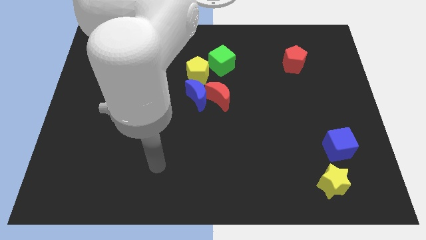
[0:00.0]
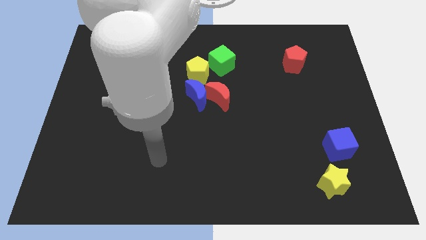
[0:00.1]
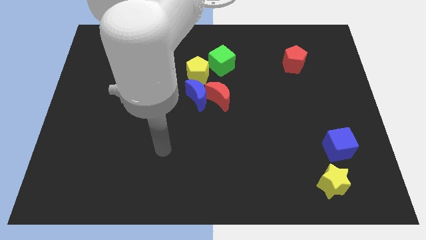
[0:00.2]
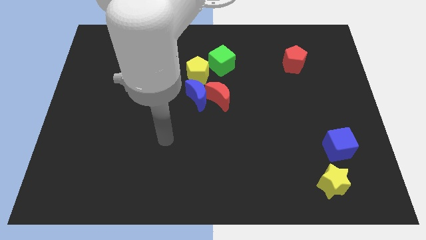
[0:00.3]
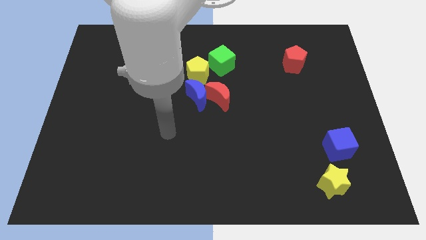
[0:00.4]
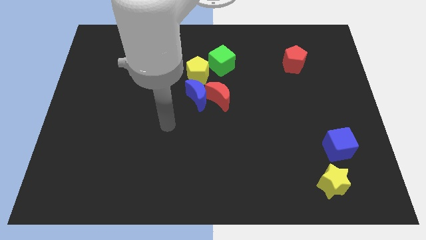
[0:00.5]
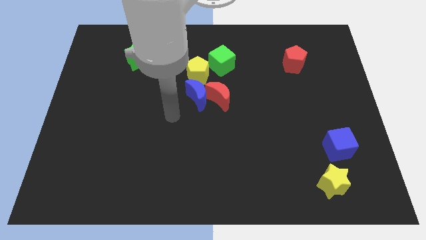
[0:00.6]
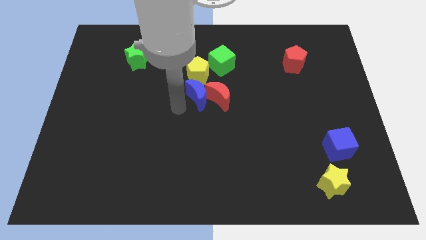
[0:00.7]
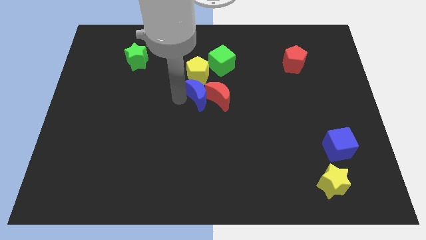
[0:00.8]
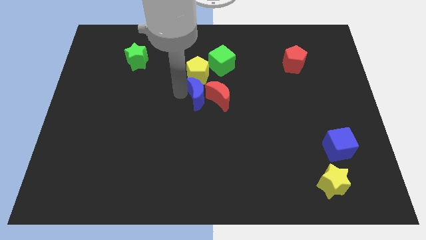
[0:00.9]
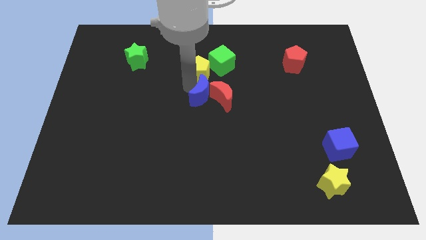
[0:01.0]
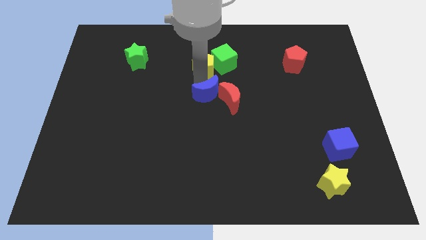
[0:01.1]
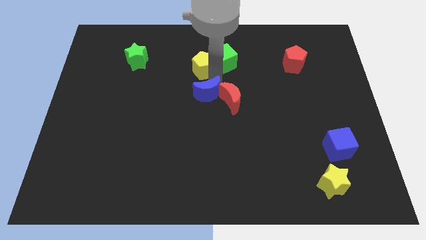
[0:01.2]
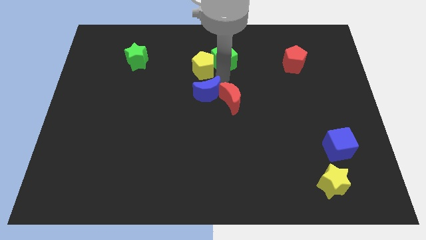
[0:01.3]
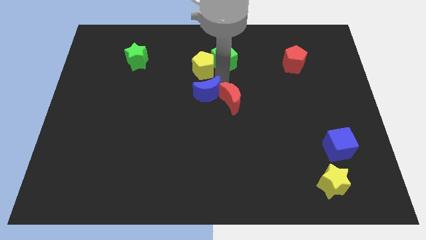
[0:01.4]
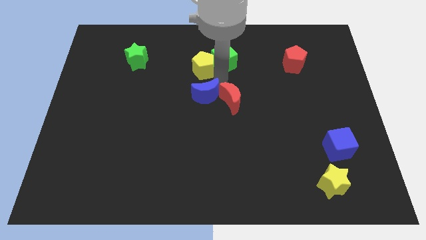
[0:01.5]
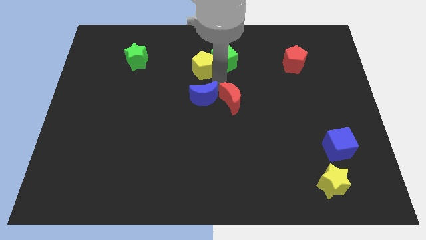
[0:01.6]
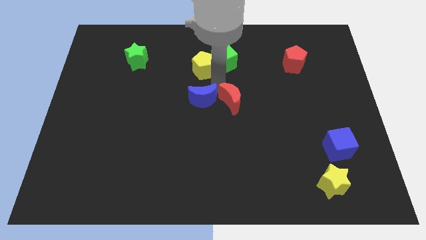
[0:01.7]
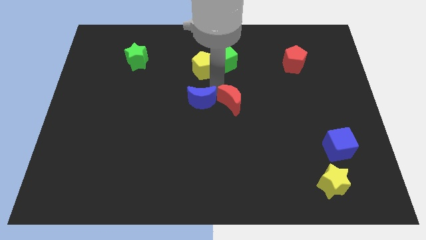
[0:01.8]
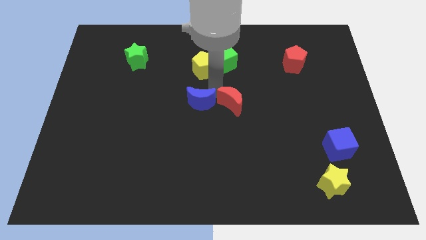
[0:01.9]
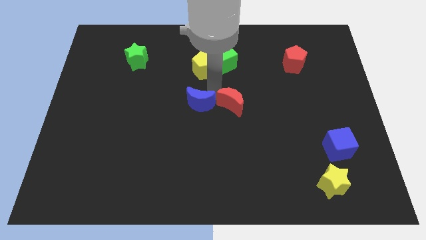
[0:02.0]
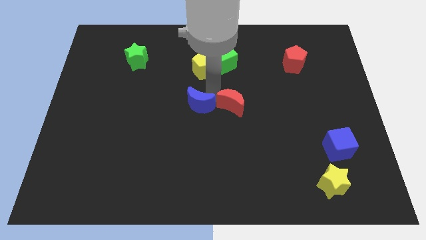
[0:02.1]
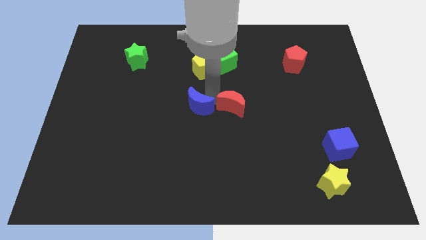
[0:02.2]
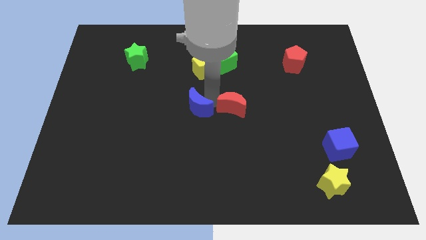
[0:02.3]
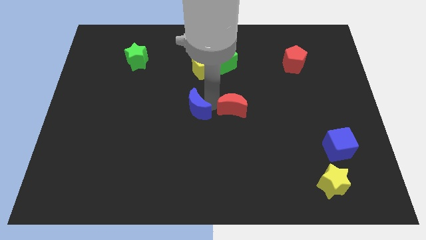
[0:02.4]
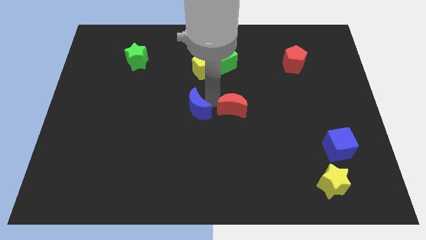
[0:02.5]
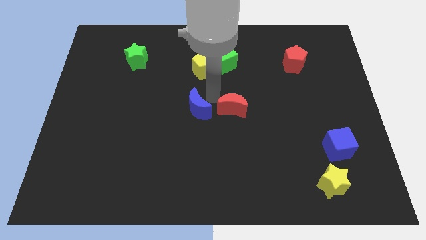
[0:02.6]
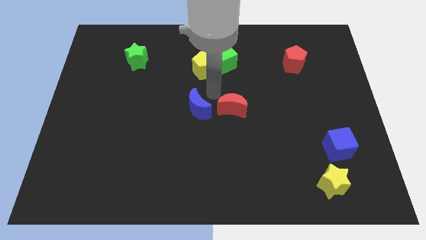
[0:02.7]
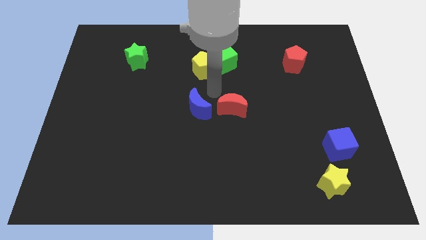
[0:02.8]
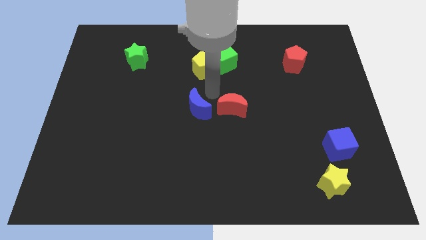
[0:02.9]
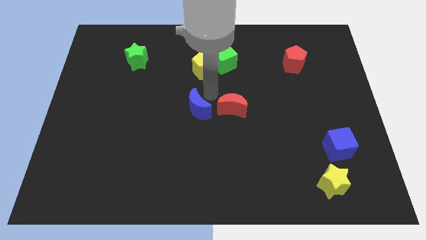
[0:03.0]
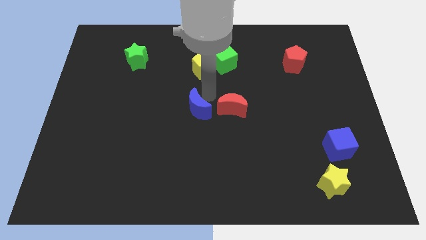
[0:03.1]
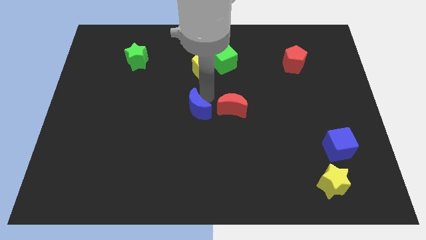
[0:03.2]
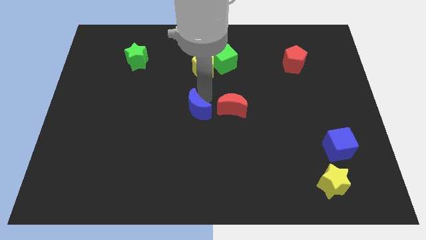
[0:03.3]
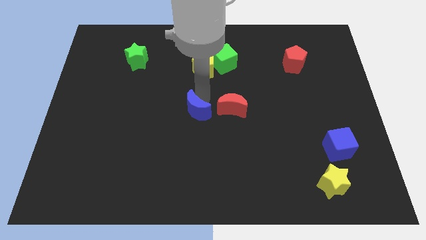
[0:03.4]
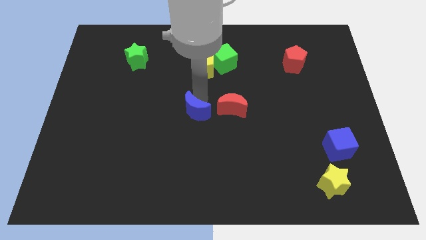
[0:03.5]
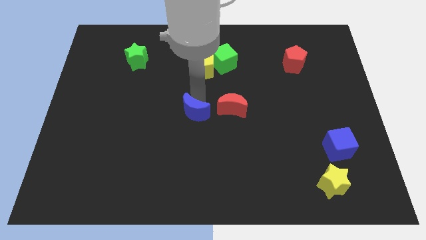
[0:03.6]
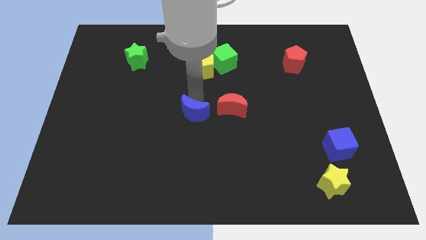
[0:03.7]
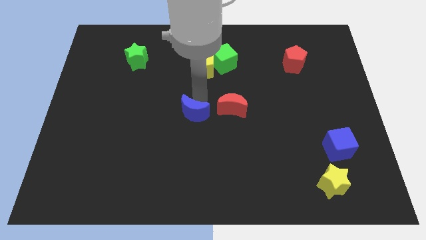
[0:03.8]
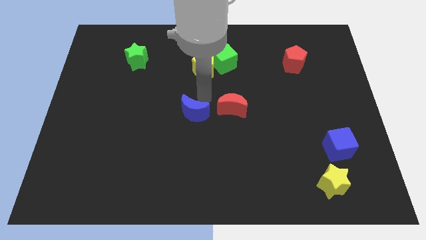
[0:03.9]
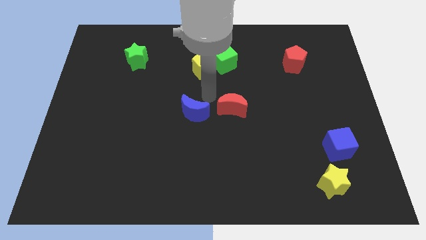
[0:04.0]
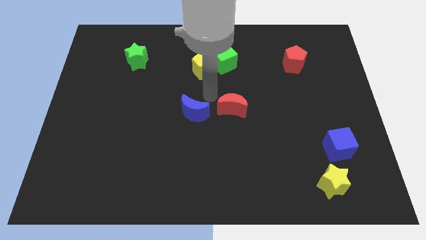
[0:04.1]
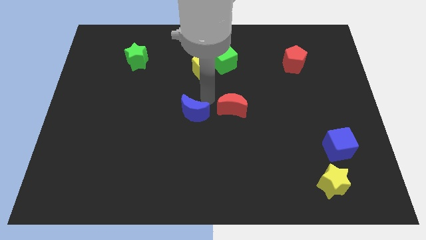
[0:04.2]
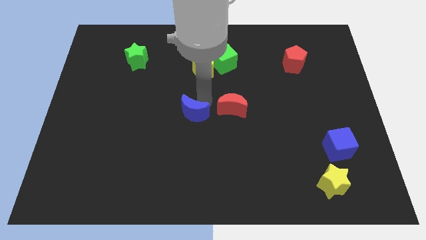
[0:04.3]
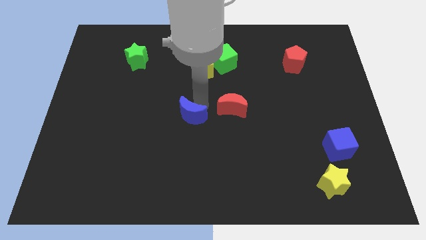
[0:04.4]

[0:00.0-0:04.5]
separate the blue moon from the red moon and yellow pentagon

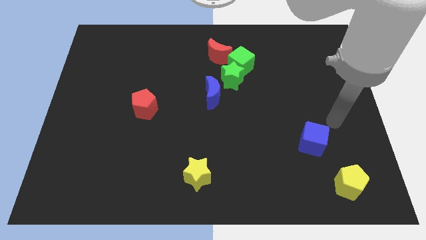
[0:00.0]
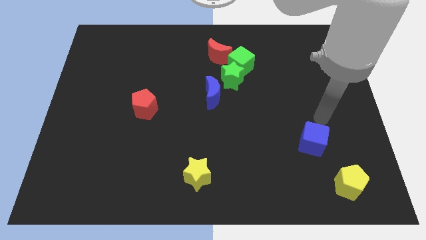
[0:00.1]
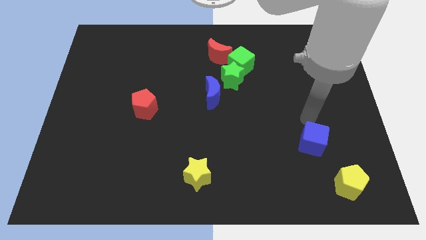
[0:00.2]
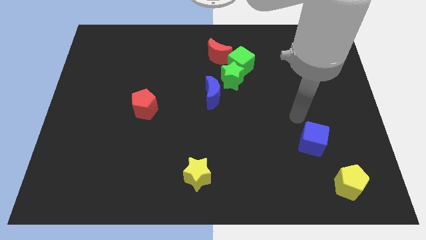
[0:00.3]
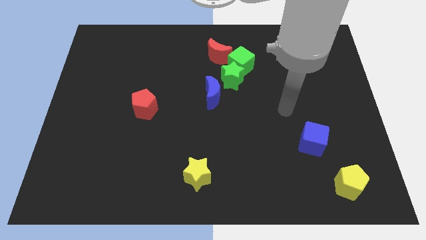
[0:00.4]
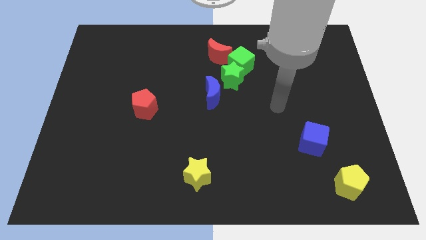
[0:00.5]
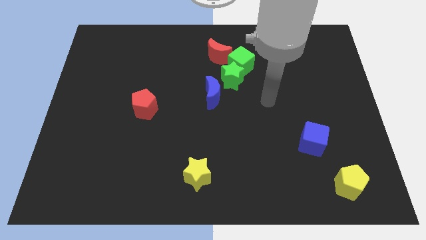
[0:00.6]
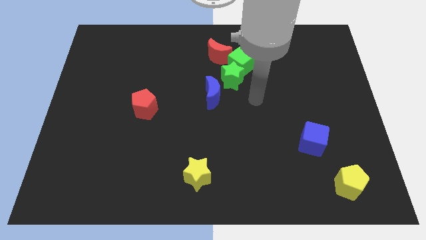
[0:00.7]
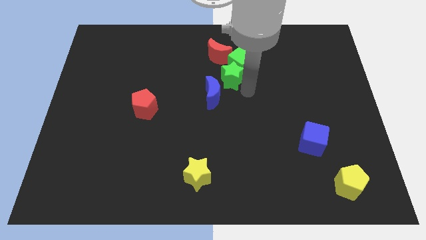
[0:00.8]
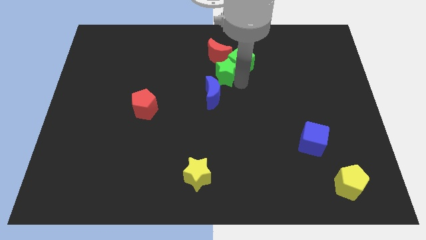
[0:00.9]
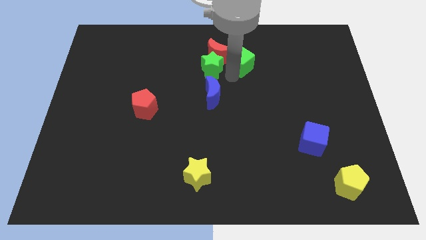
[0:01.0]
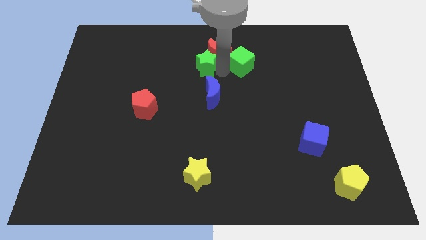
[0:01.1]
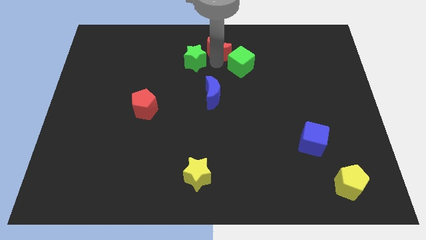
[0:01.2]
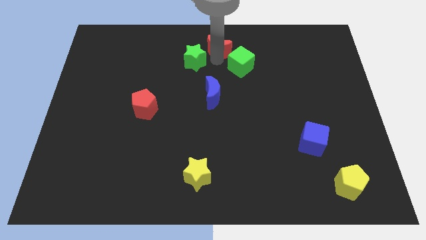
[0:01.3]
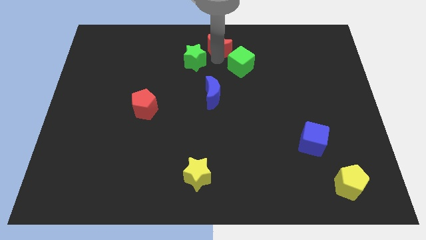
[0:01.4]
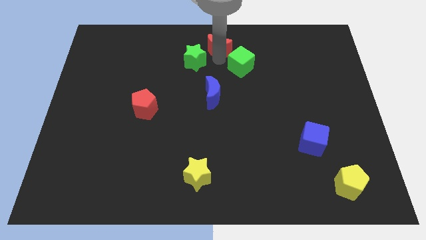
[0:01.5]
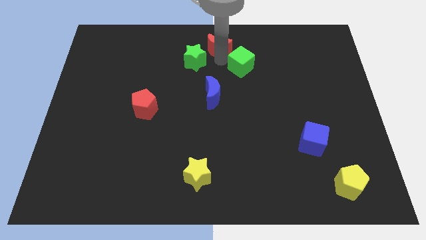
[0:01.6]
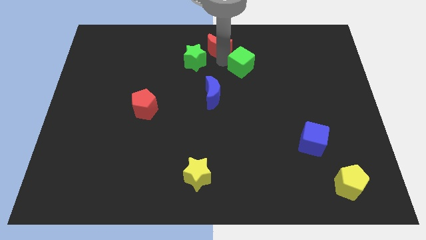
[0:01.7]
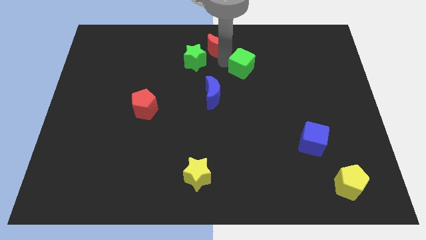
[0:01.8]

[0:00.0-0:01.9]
pull the green cube apart from the green star and red moon

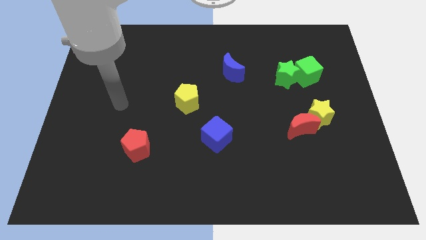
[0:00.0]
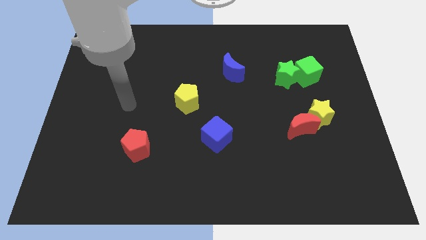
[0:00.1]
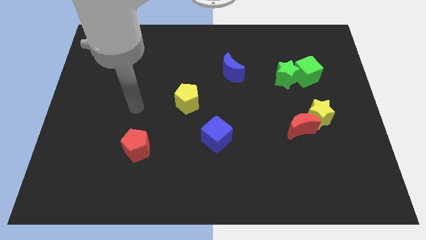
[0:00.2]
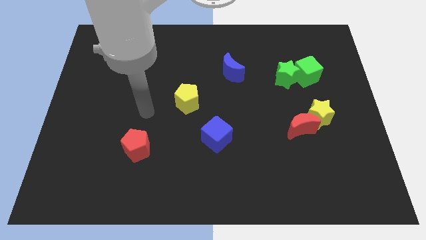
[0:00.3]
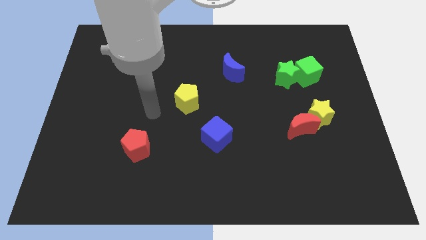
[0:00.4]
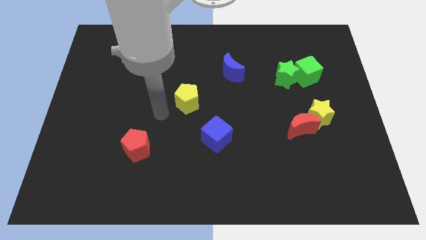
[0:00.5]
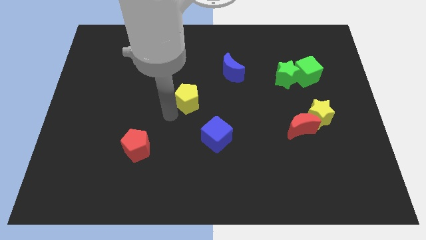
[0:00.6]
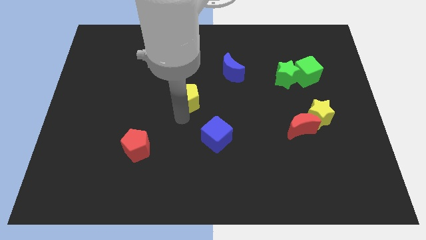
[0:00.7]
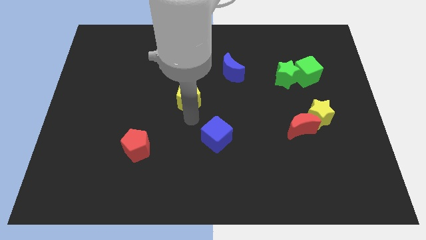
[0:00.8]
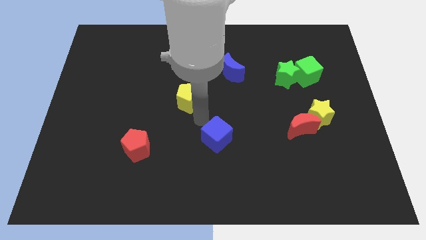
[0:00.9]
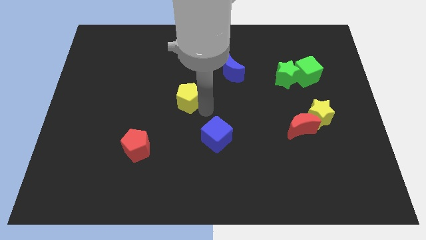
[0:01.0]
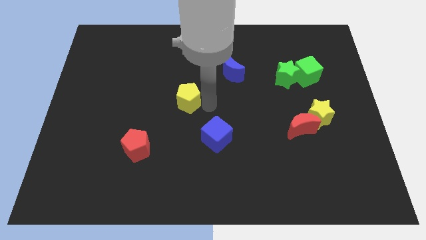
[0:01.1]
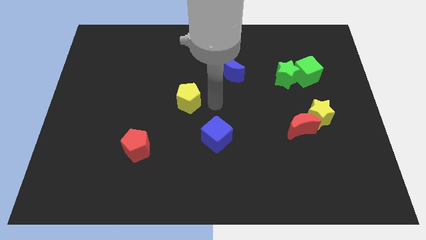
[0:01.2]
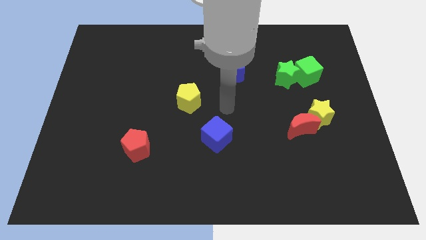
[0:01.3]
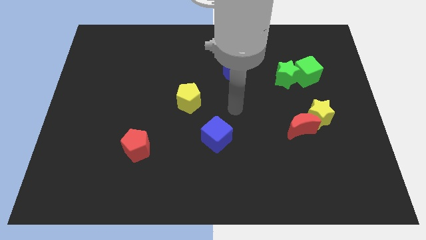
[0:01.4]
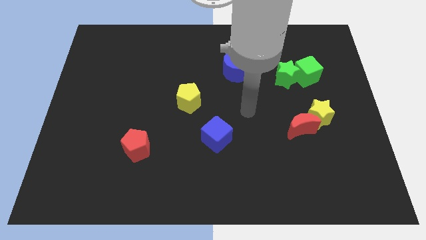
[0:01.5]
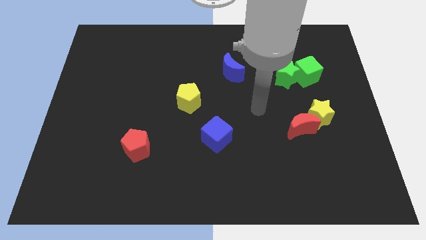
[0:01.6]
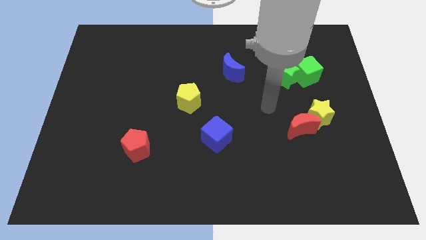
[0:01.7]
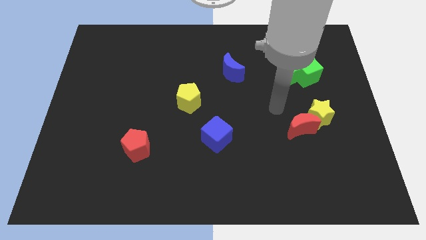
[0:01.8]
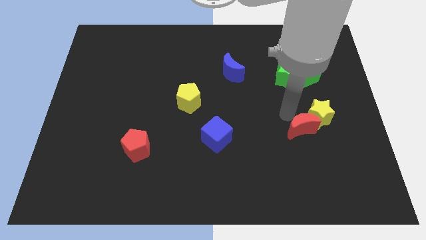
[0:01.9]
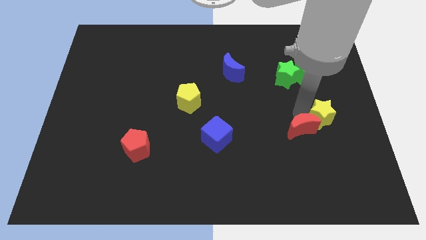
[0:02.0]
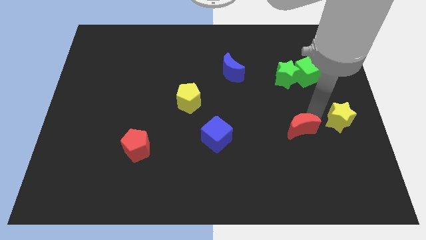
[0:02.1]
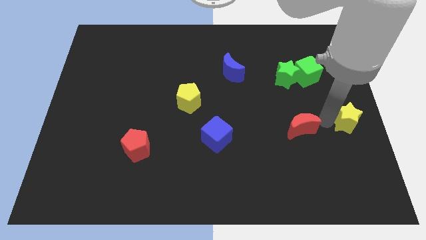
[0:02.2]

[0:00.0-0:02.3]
separate the red moon from the yellow star

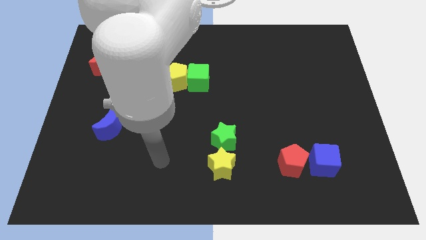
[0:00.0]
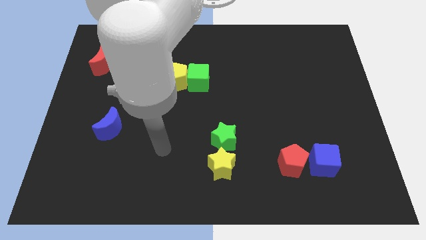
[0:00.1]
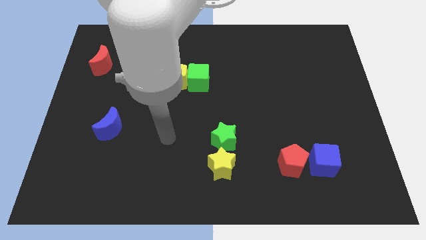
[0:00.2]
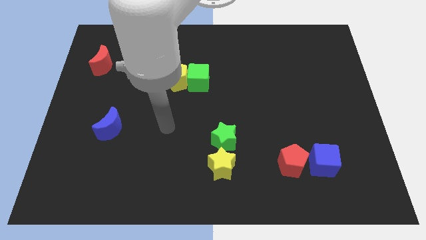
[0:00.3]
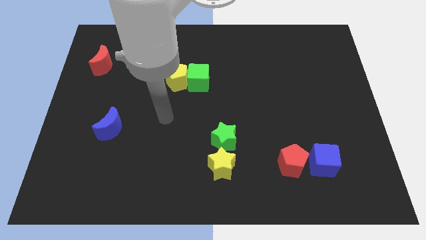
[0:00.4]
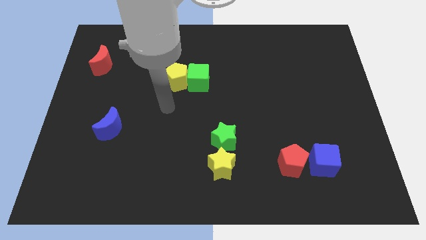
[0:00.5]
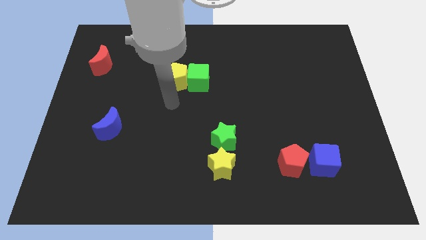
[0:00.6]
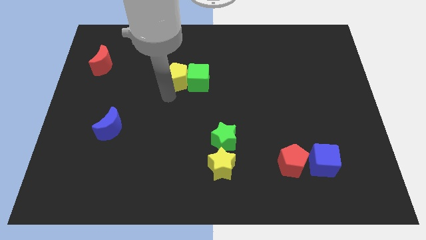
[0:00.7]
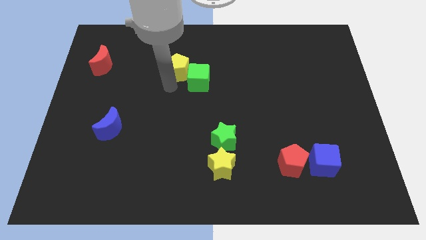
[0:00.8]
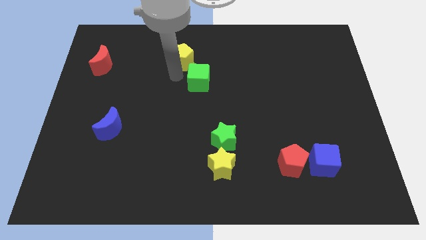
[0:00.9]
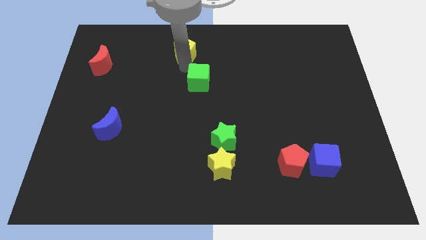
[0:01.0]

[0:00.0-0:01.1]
separate the green cube from the yellow pentagon
